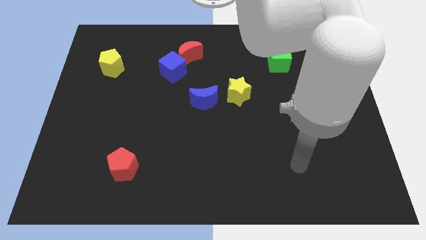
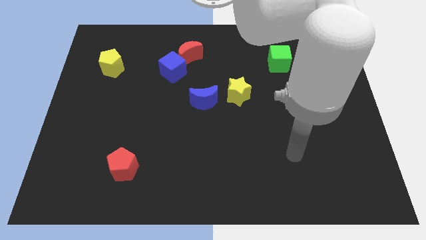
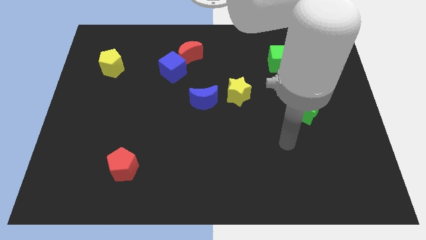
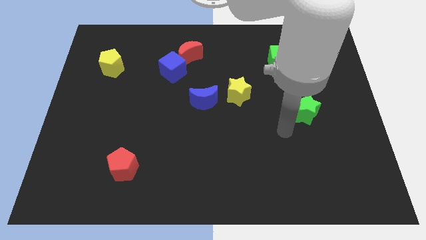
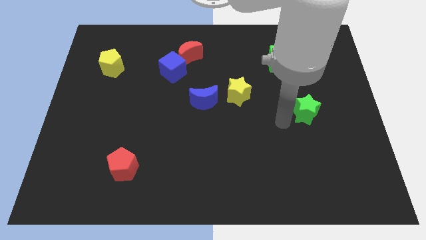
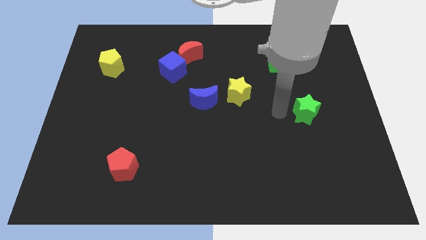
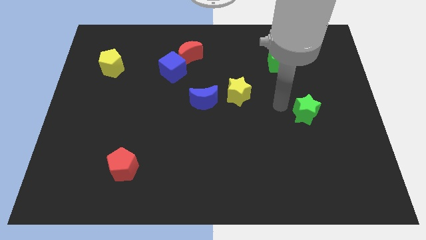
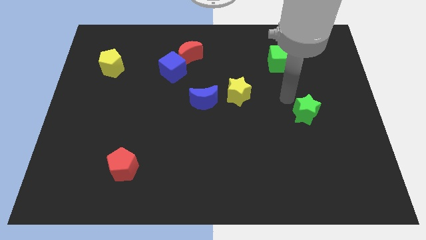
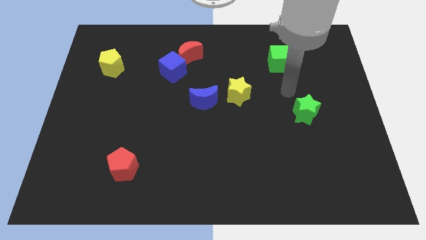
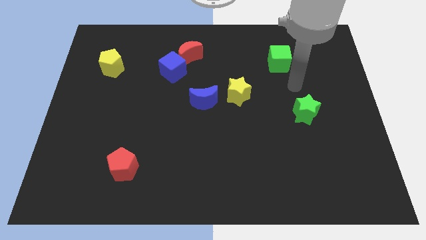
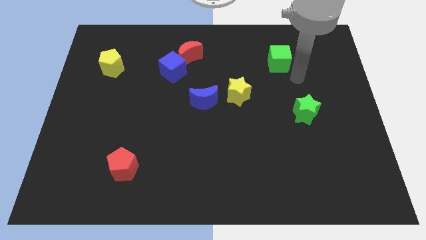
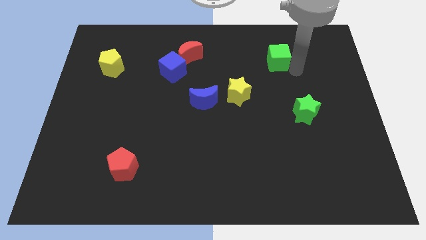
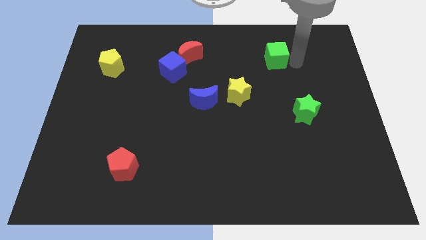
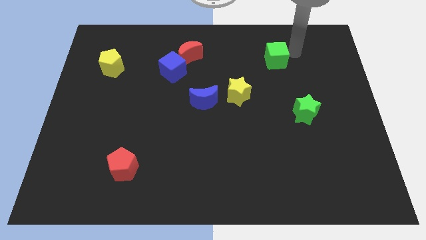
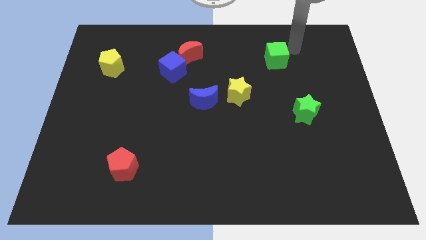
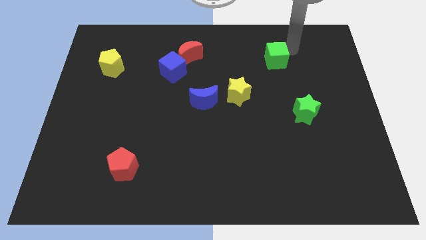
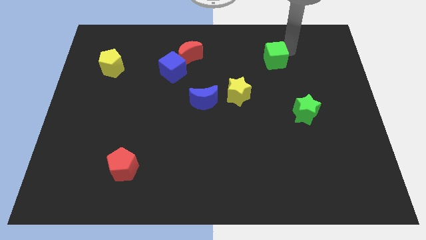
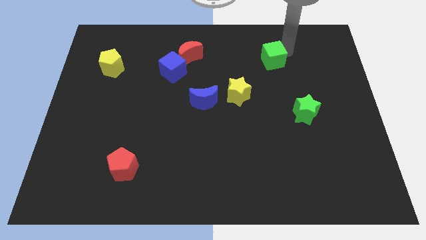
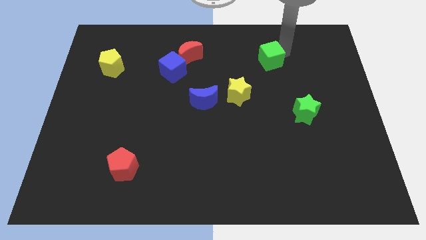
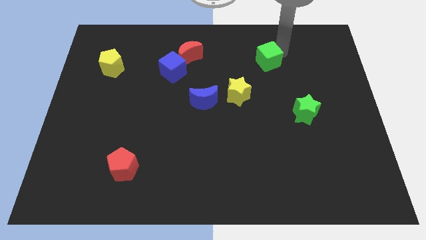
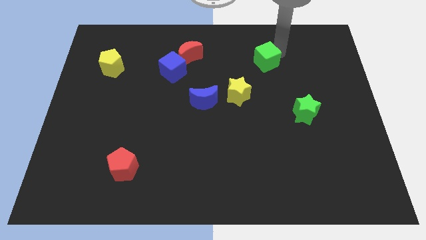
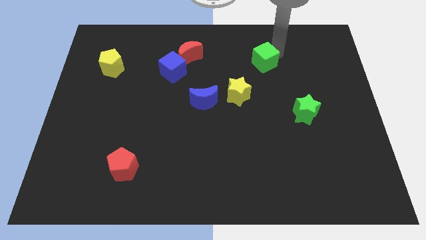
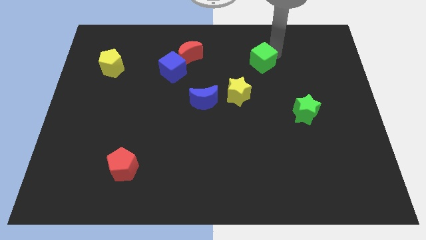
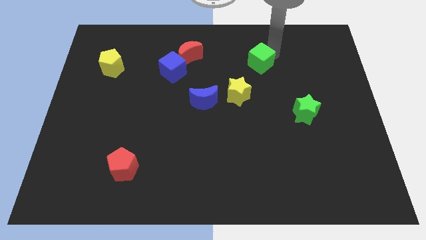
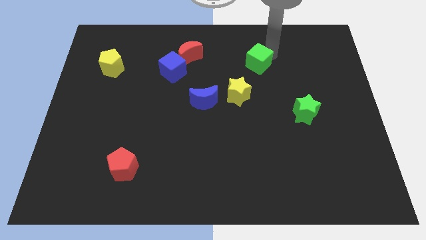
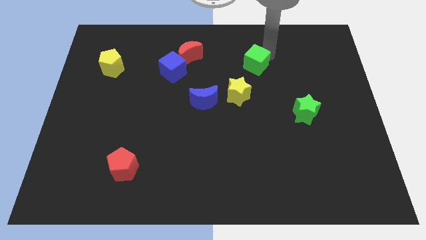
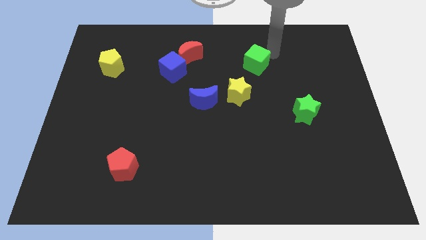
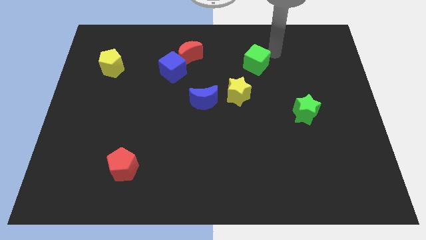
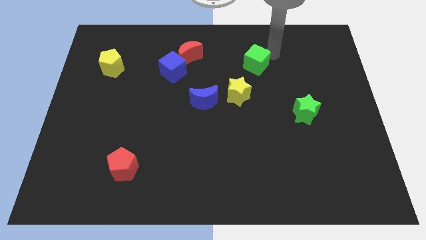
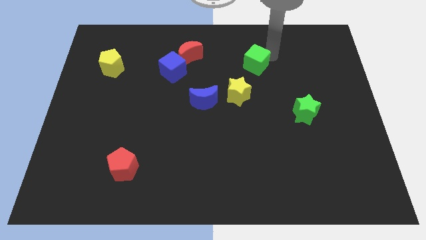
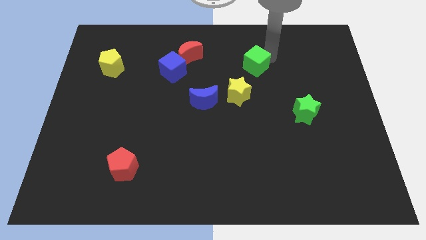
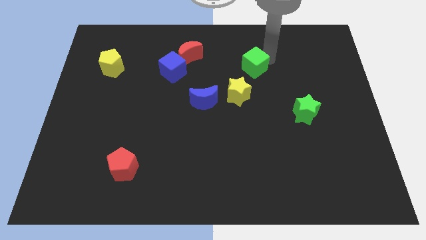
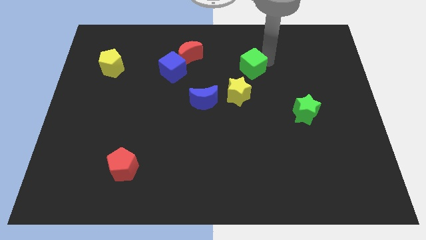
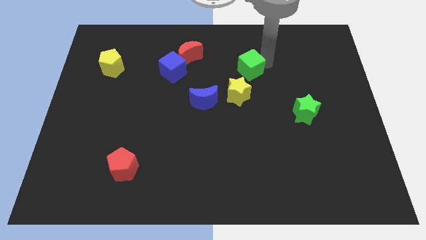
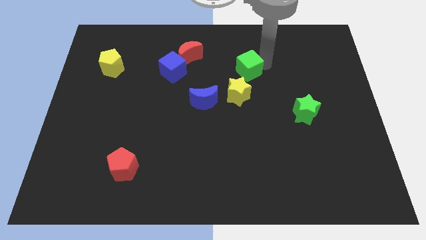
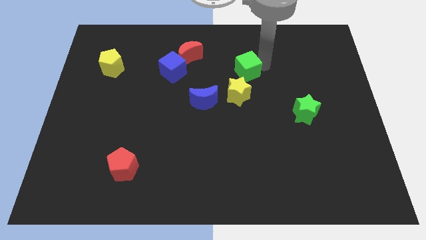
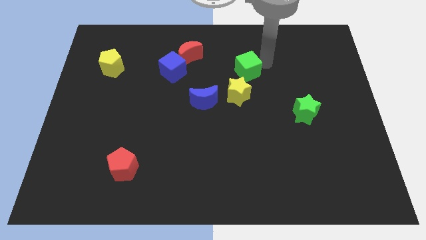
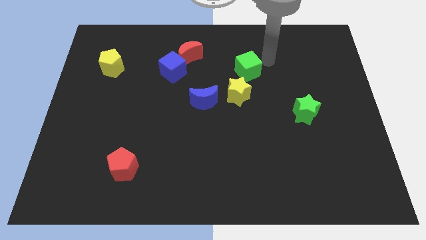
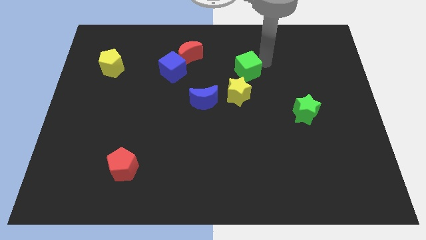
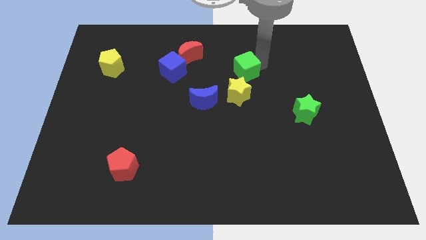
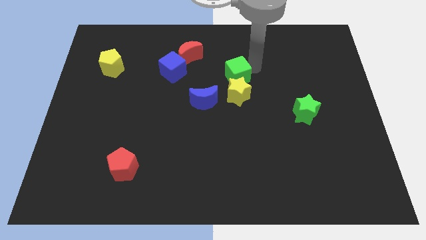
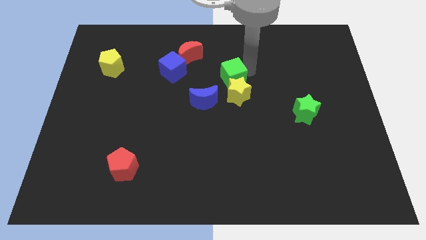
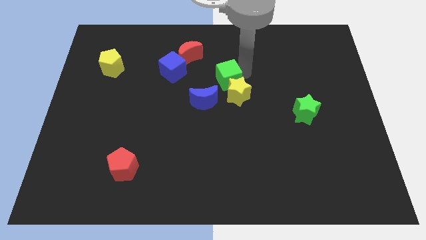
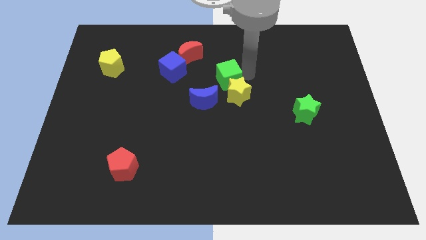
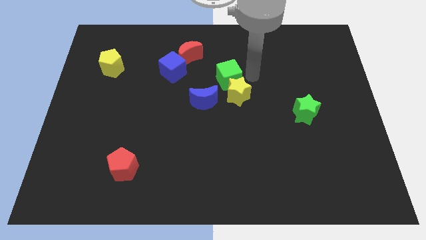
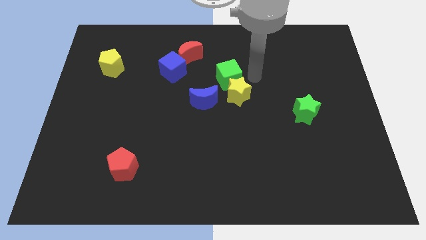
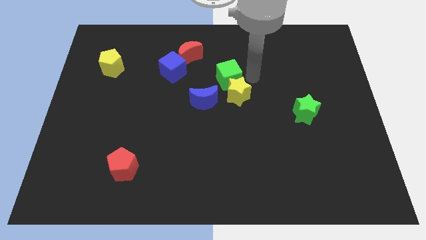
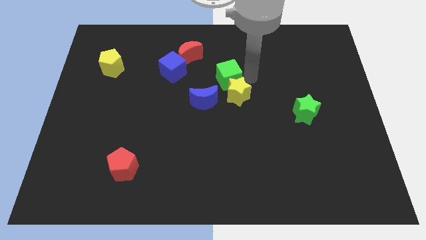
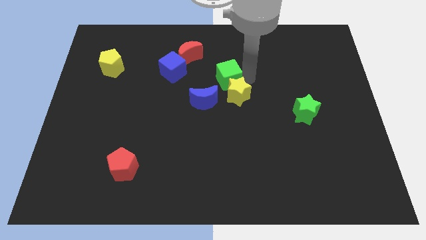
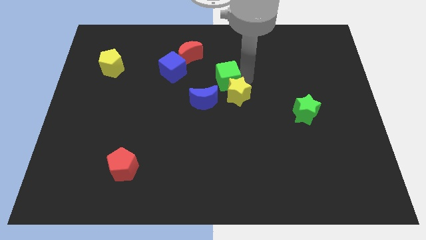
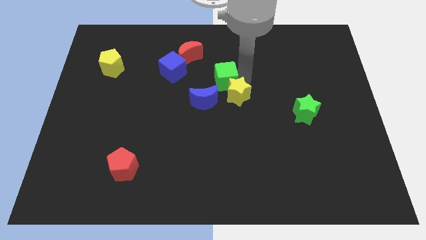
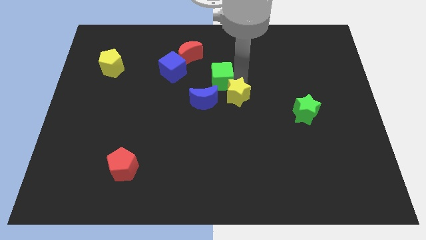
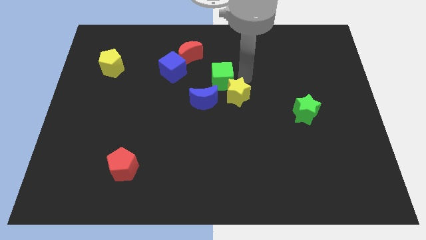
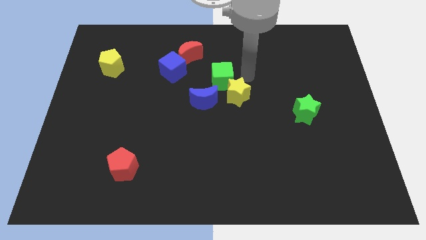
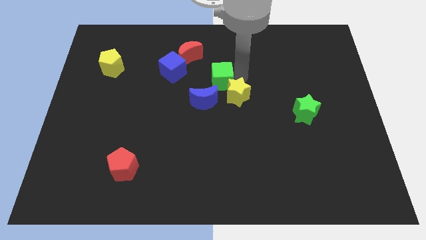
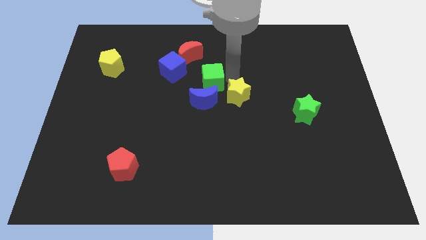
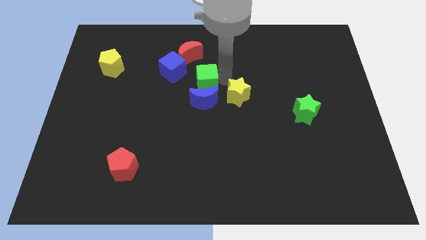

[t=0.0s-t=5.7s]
put the green cube to the top left side of the blue moon

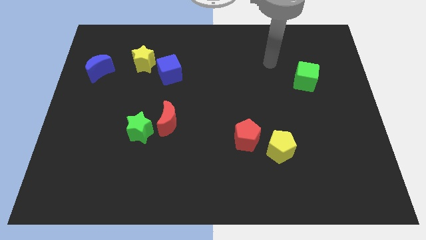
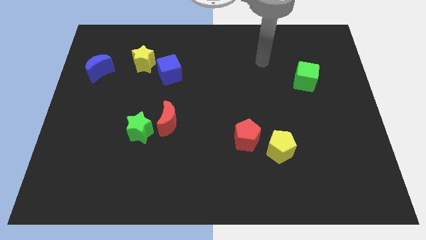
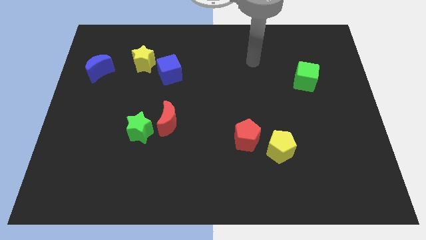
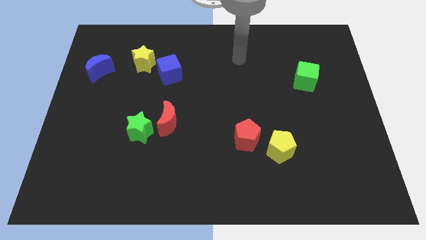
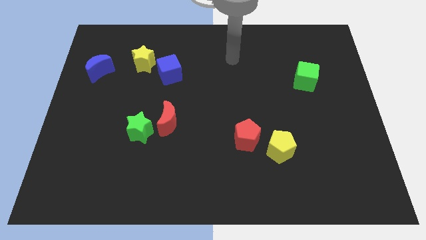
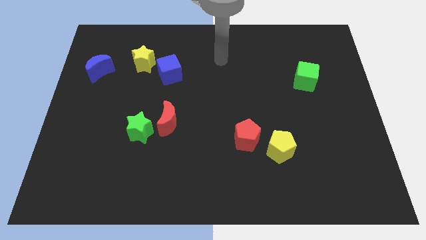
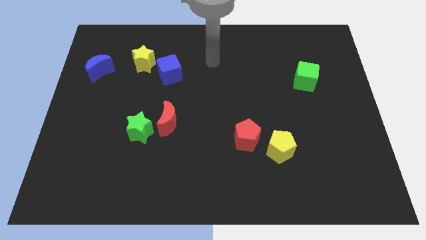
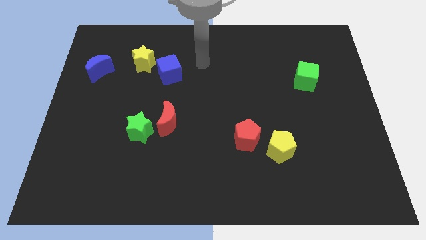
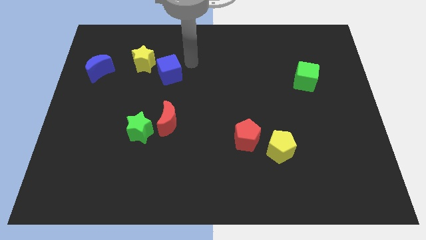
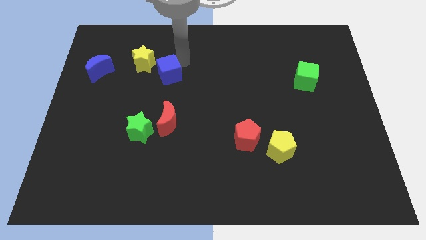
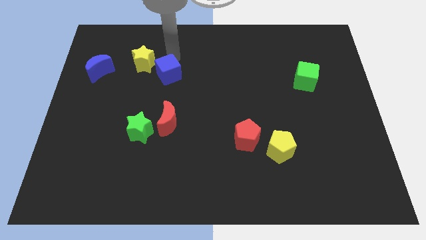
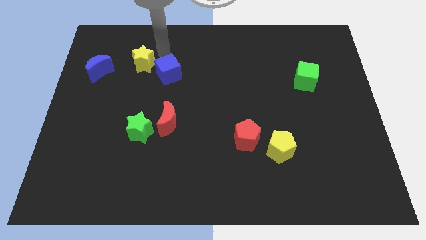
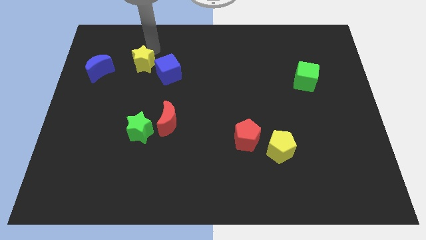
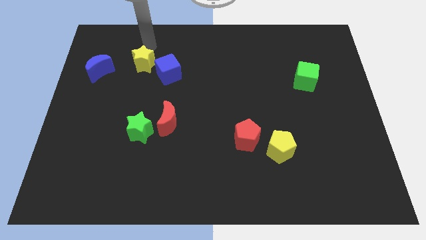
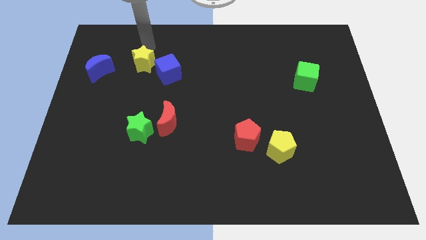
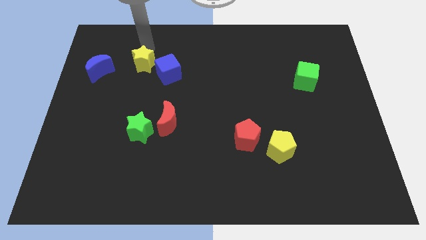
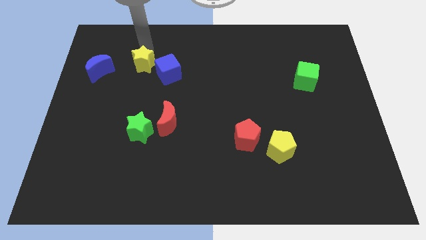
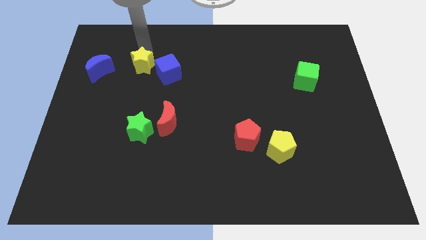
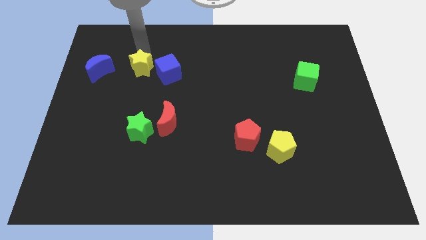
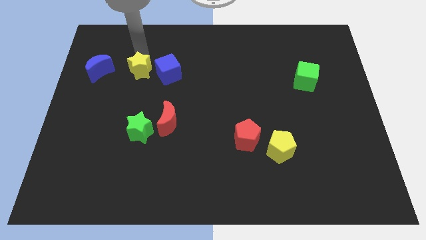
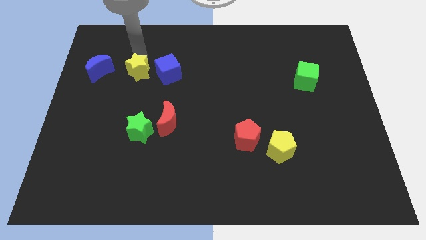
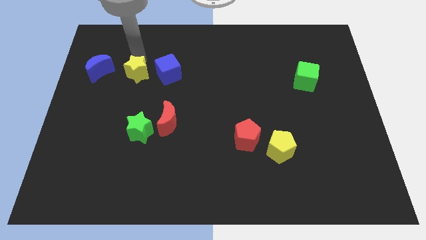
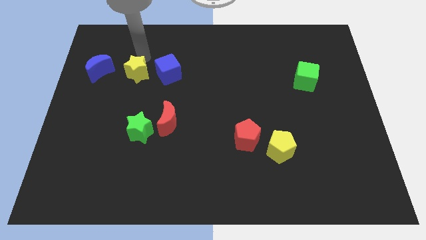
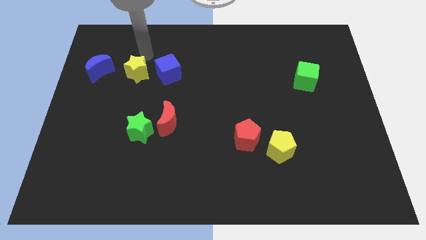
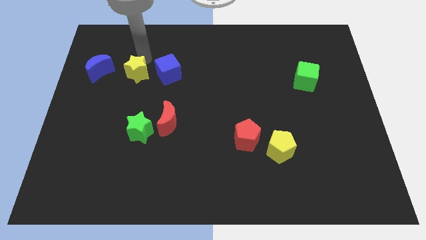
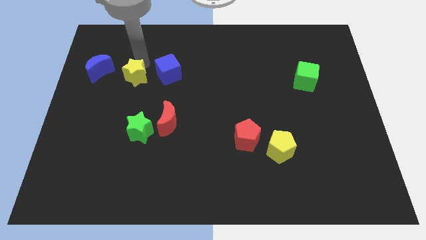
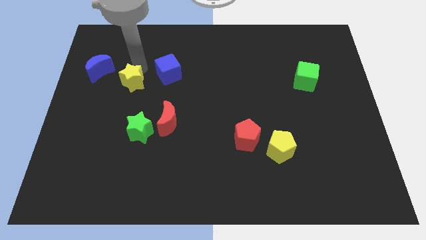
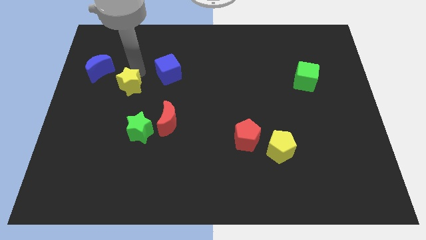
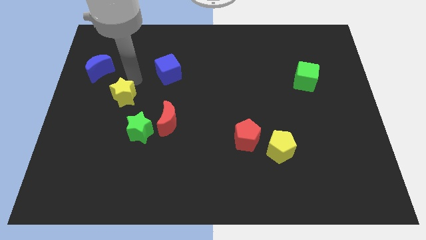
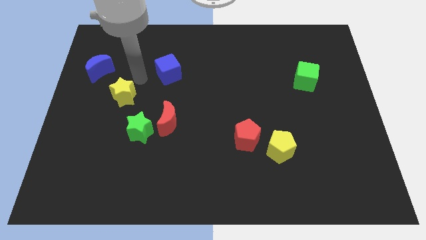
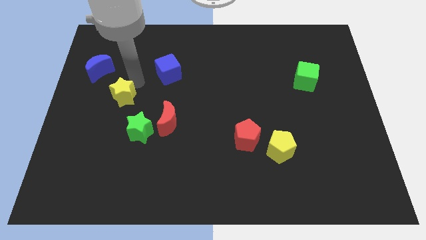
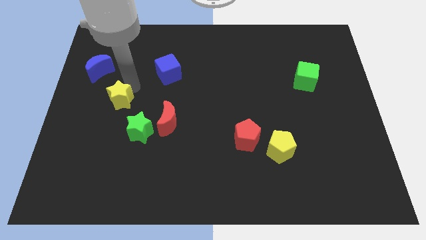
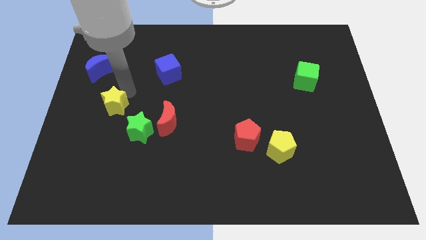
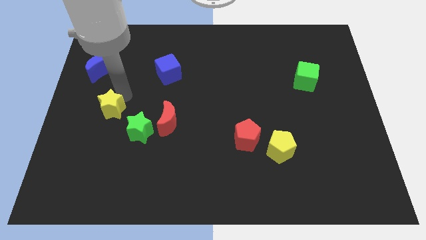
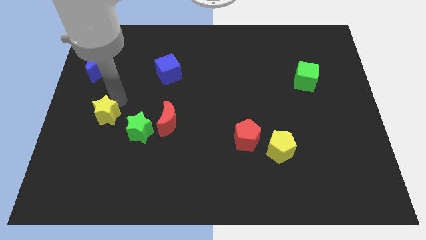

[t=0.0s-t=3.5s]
push the yellow star to the left of the green star
